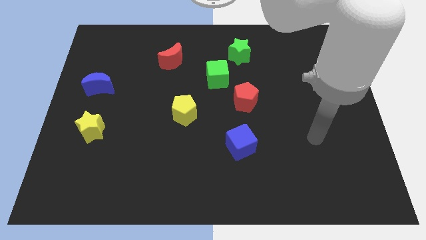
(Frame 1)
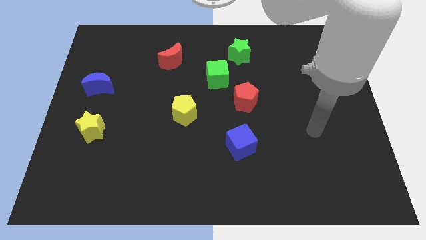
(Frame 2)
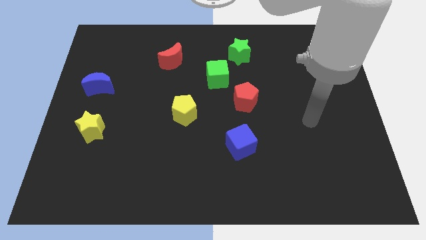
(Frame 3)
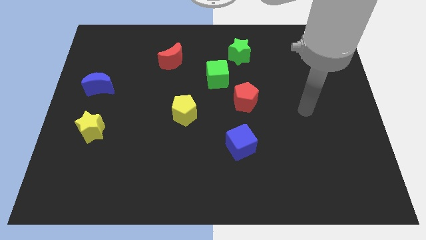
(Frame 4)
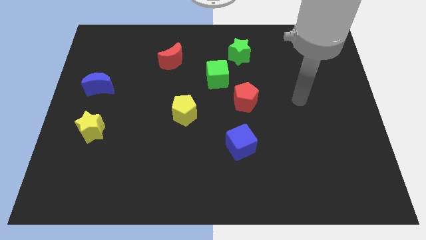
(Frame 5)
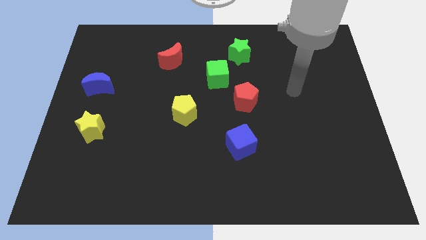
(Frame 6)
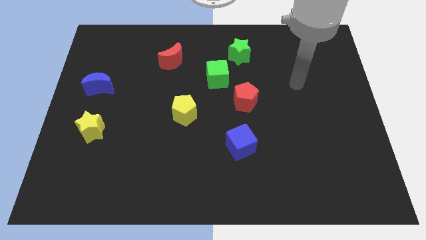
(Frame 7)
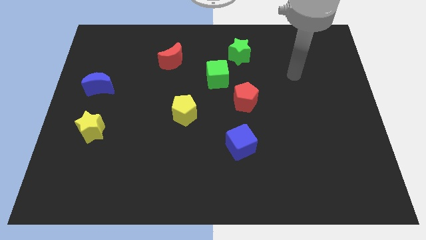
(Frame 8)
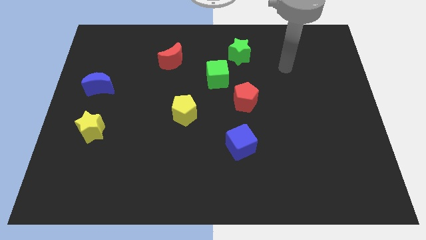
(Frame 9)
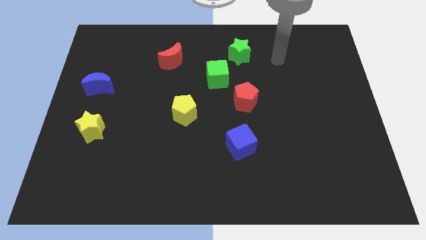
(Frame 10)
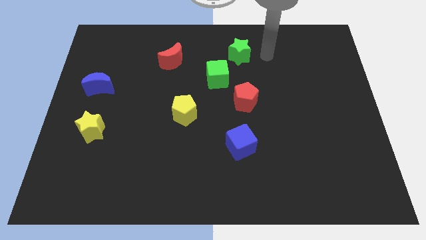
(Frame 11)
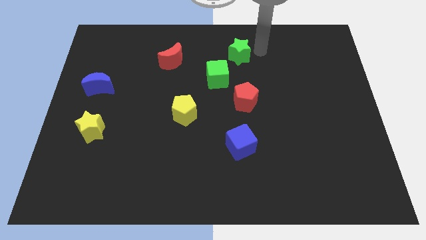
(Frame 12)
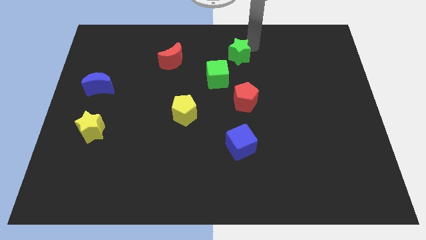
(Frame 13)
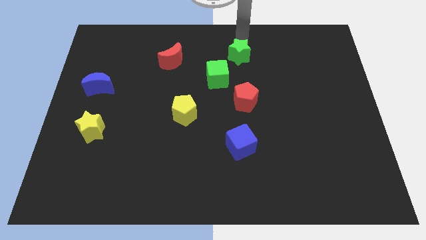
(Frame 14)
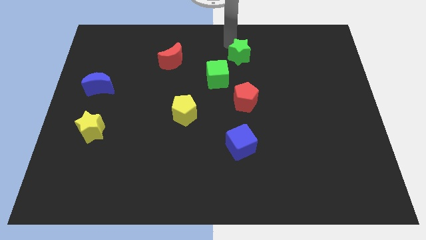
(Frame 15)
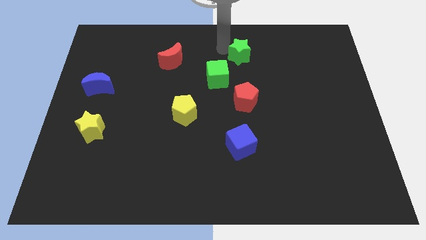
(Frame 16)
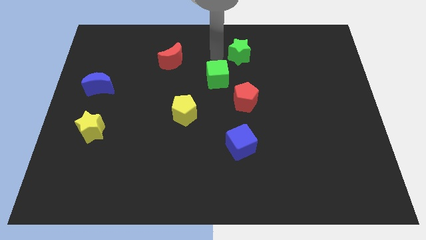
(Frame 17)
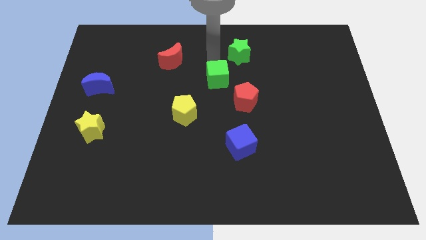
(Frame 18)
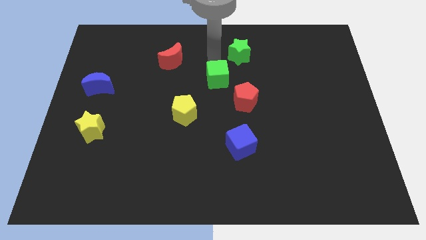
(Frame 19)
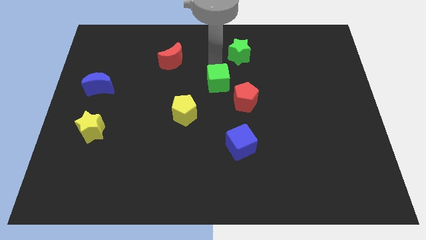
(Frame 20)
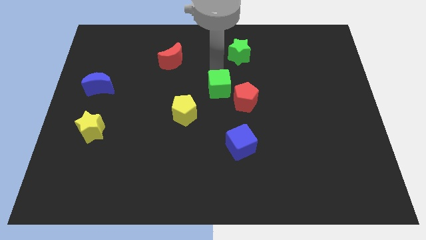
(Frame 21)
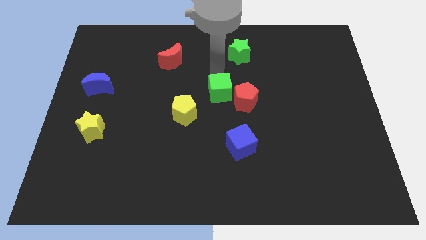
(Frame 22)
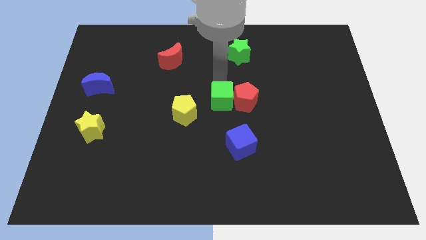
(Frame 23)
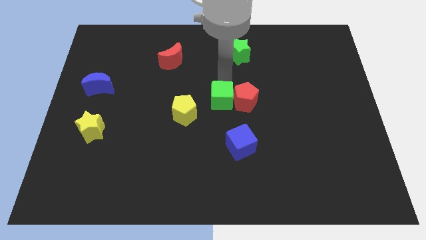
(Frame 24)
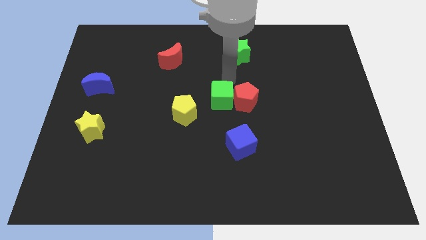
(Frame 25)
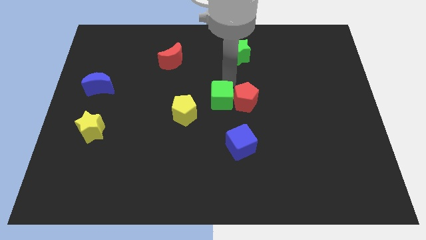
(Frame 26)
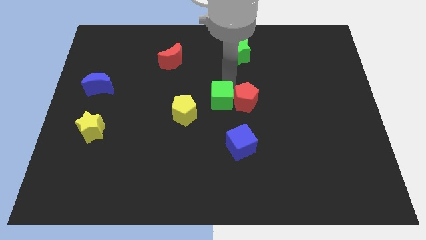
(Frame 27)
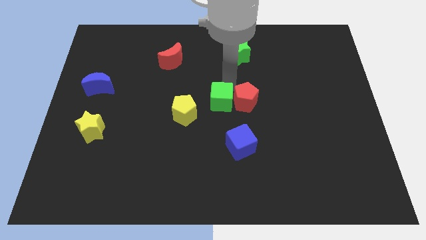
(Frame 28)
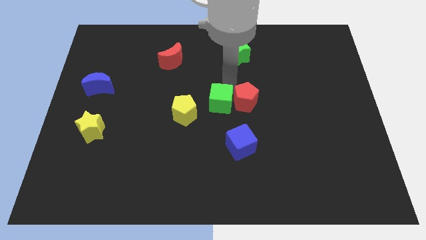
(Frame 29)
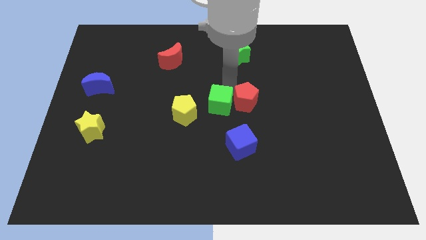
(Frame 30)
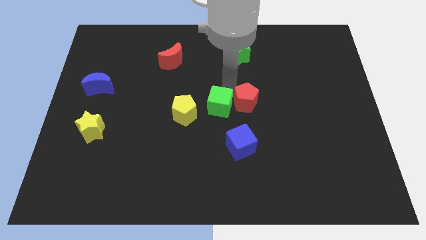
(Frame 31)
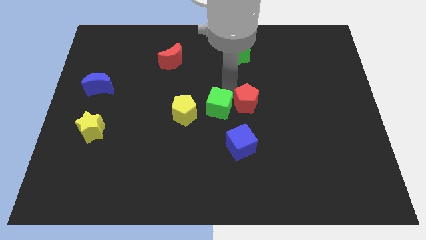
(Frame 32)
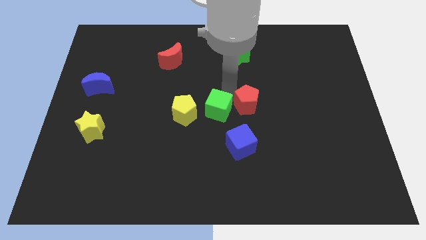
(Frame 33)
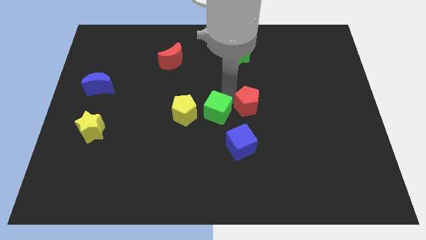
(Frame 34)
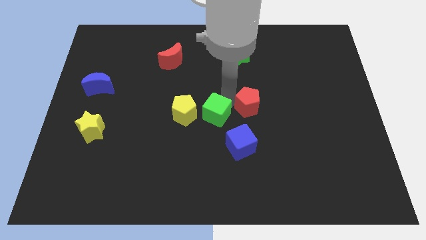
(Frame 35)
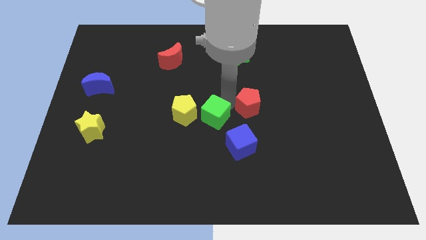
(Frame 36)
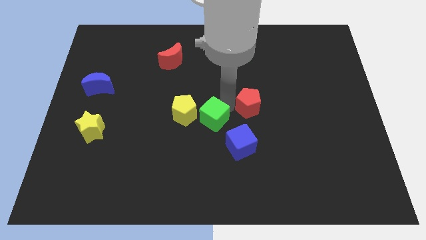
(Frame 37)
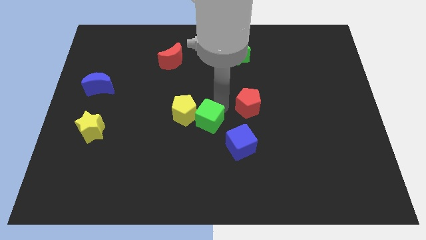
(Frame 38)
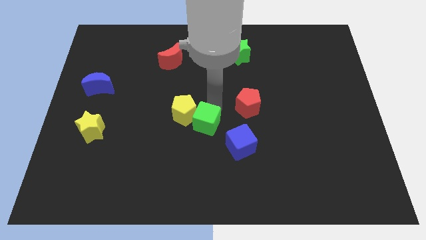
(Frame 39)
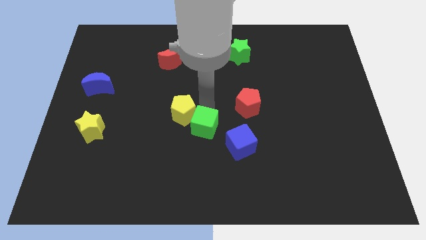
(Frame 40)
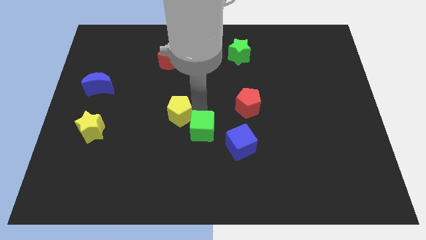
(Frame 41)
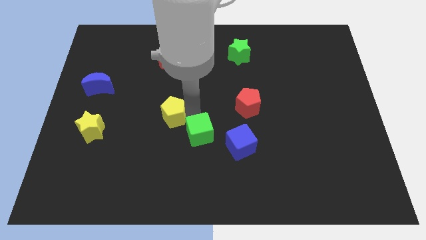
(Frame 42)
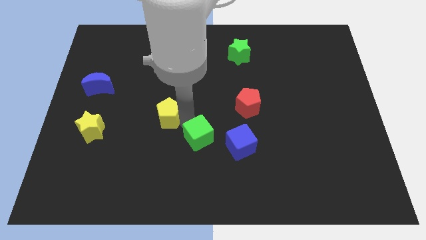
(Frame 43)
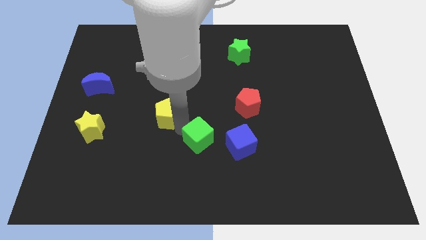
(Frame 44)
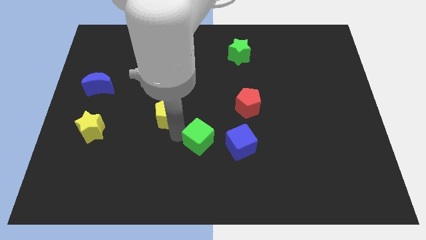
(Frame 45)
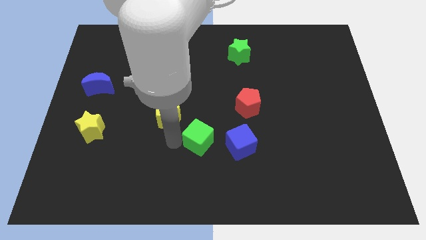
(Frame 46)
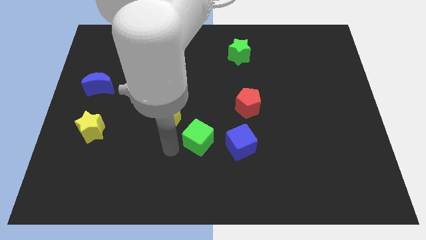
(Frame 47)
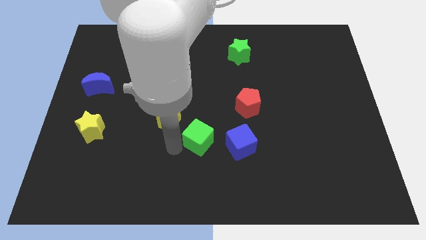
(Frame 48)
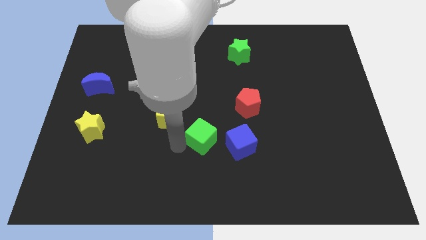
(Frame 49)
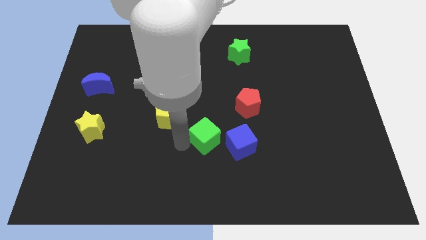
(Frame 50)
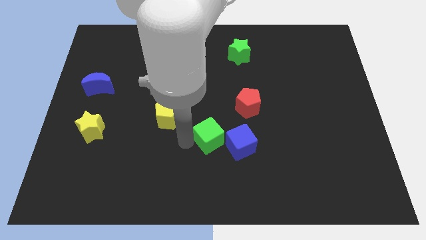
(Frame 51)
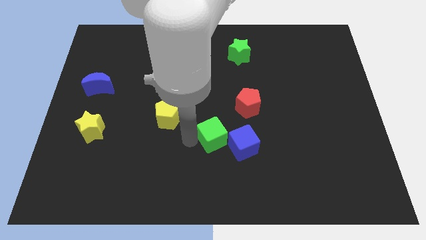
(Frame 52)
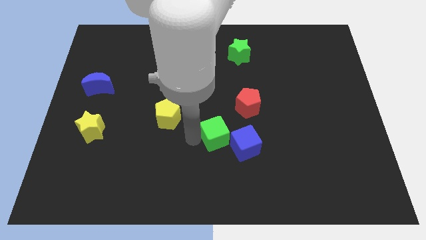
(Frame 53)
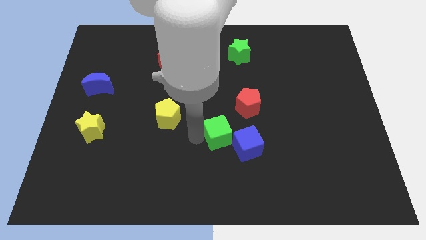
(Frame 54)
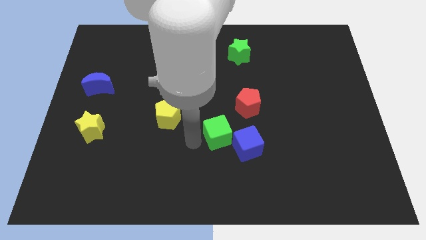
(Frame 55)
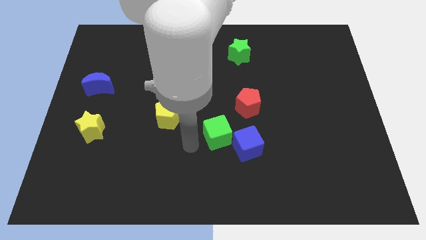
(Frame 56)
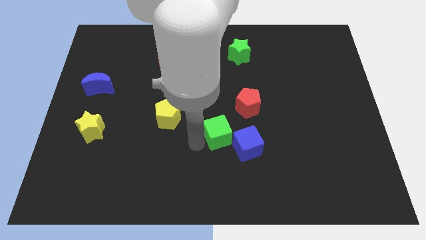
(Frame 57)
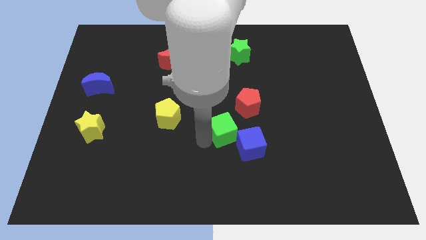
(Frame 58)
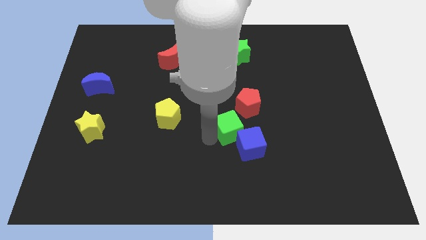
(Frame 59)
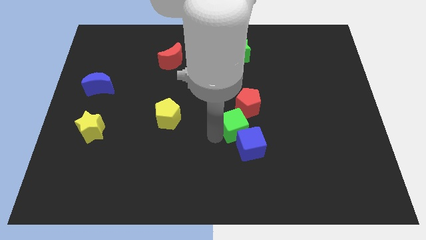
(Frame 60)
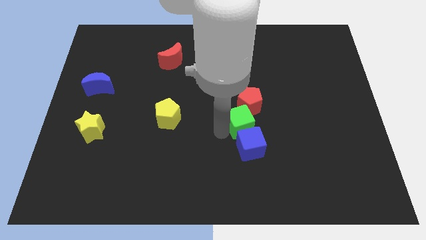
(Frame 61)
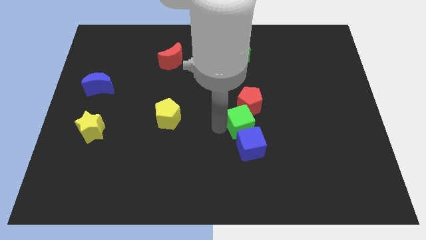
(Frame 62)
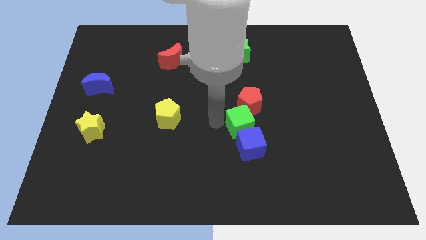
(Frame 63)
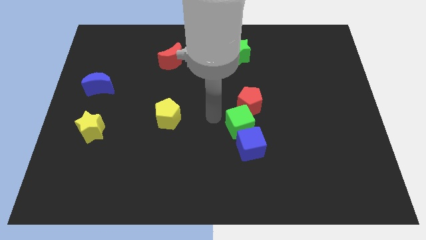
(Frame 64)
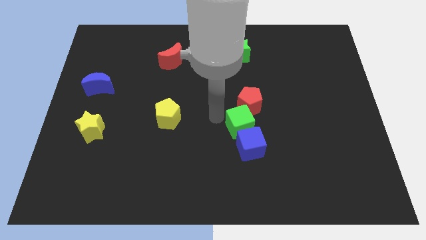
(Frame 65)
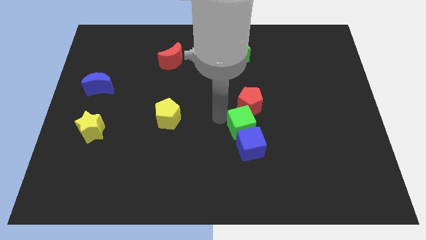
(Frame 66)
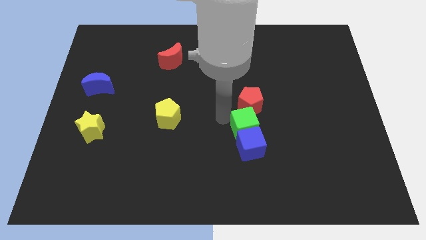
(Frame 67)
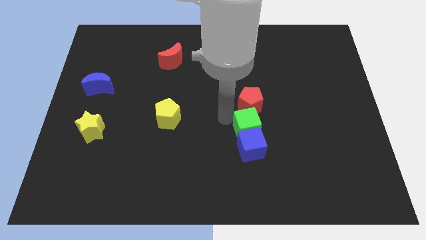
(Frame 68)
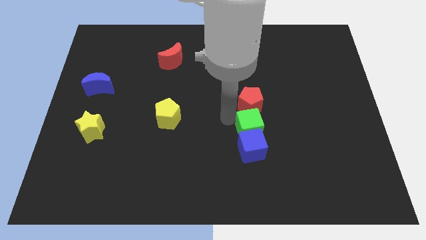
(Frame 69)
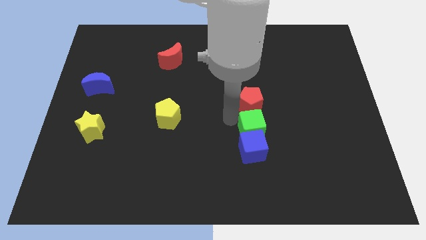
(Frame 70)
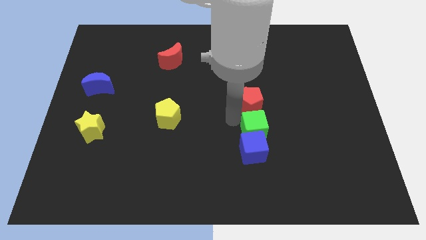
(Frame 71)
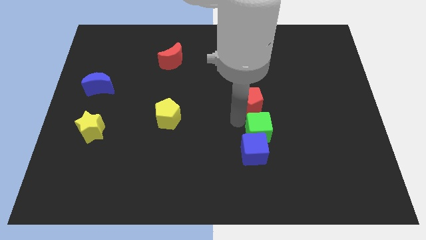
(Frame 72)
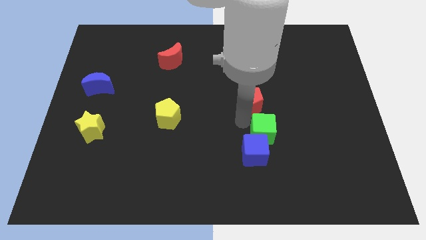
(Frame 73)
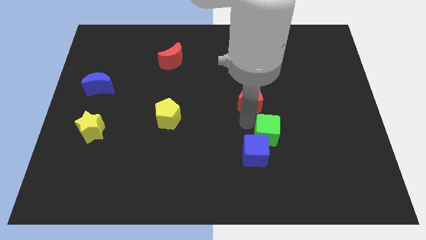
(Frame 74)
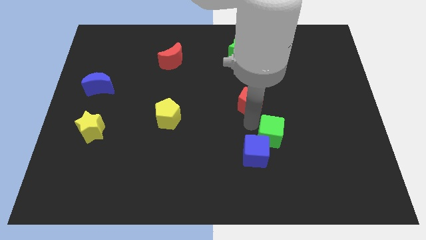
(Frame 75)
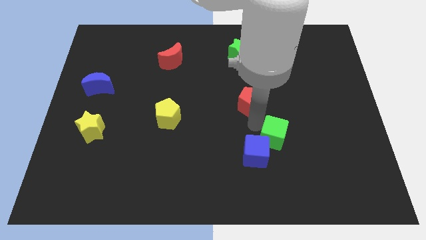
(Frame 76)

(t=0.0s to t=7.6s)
put the green cube to the right of the blue cube
